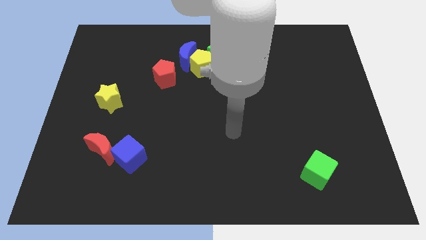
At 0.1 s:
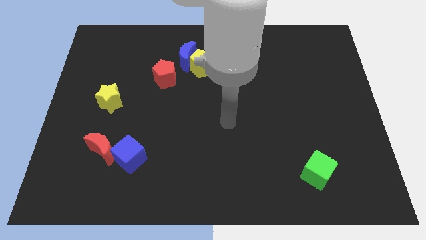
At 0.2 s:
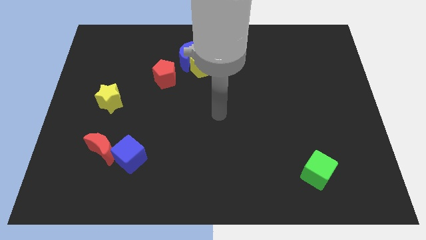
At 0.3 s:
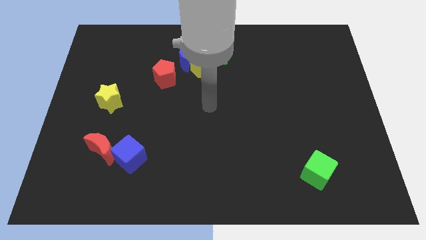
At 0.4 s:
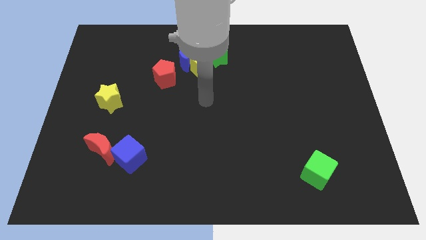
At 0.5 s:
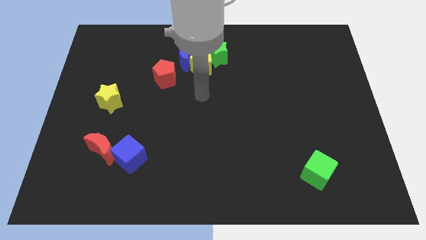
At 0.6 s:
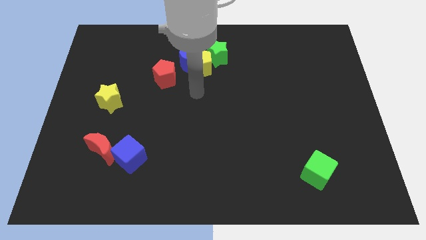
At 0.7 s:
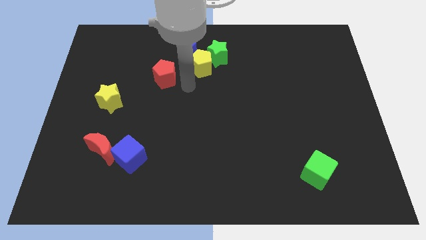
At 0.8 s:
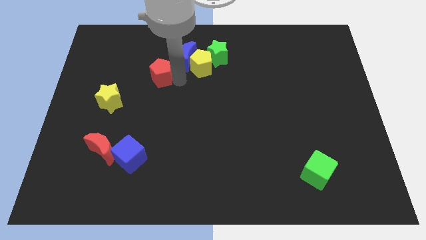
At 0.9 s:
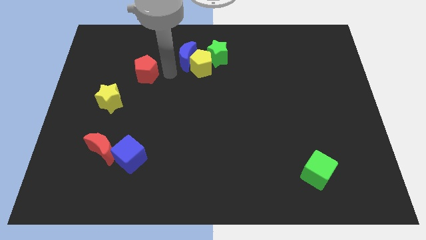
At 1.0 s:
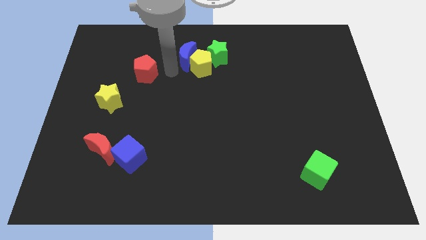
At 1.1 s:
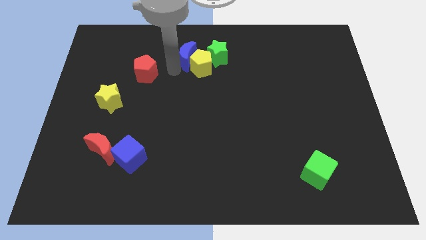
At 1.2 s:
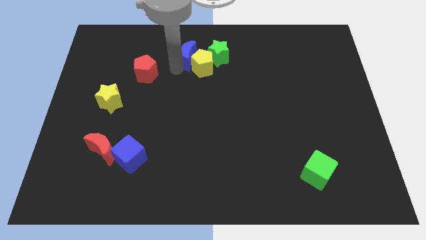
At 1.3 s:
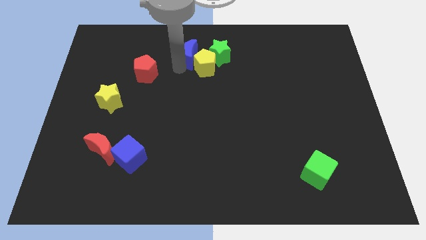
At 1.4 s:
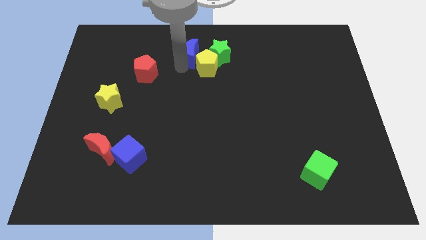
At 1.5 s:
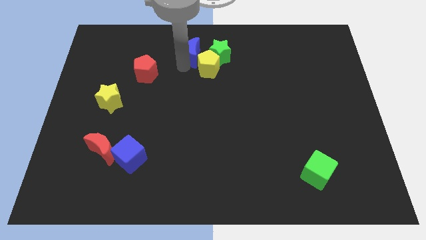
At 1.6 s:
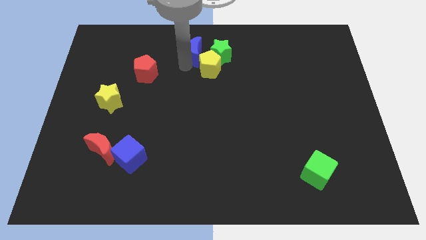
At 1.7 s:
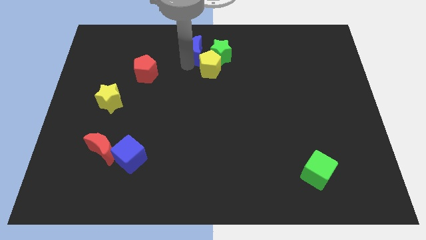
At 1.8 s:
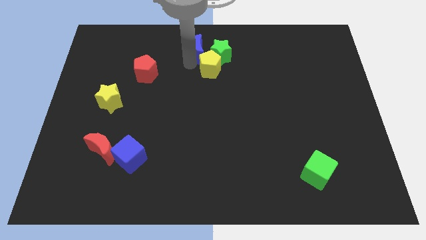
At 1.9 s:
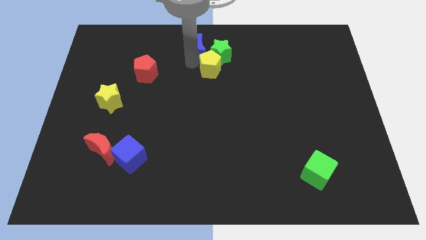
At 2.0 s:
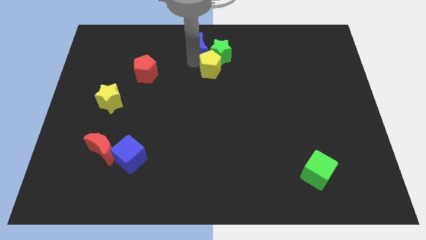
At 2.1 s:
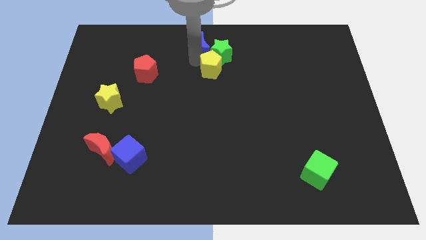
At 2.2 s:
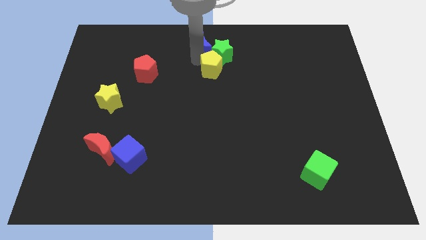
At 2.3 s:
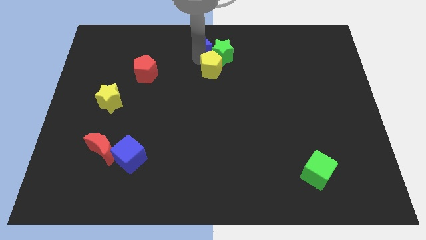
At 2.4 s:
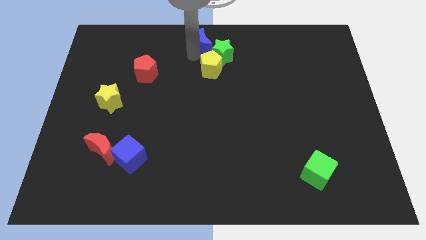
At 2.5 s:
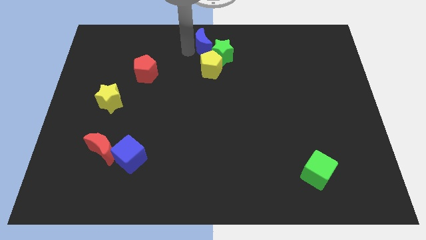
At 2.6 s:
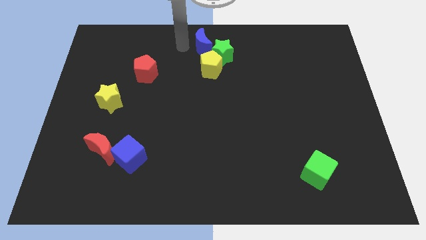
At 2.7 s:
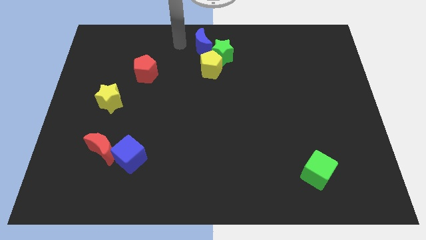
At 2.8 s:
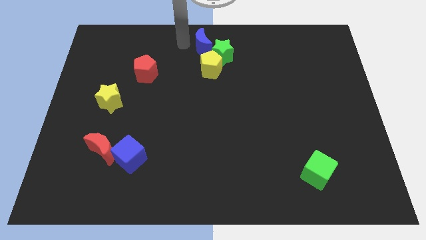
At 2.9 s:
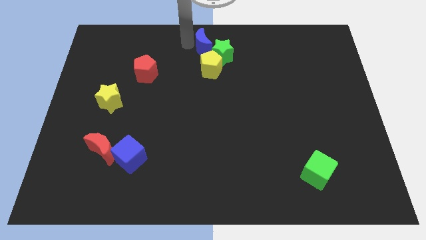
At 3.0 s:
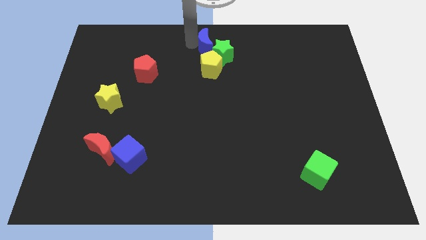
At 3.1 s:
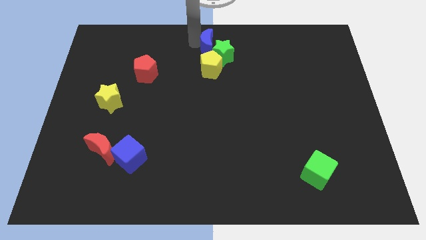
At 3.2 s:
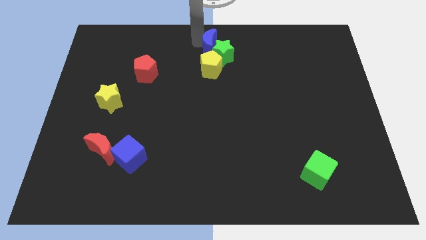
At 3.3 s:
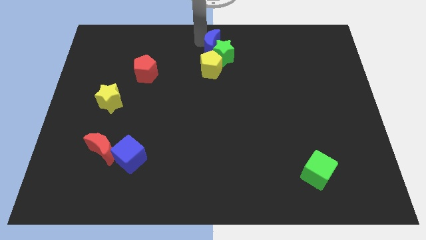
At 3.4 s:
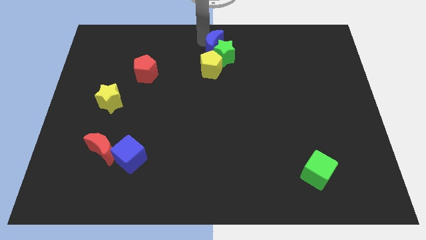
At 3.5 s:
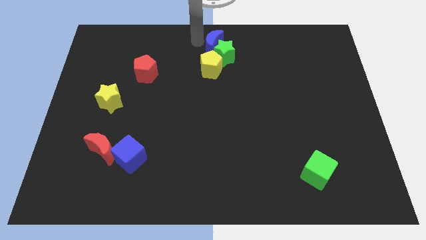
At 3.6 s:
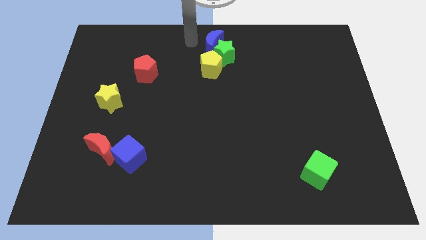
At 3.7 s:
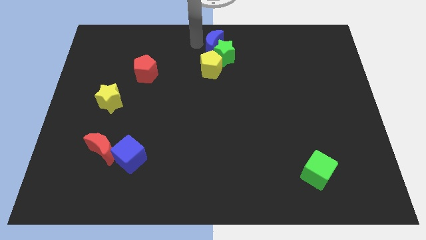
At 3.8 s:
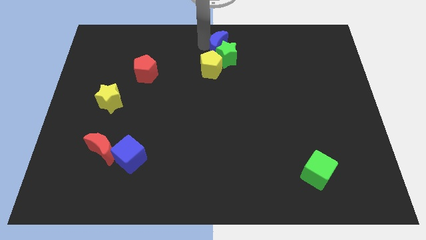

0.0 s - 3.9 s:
slightly move the blue moon to the right

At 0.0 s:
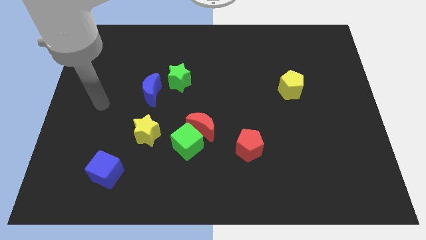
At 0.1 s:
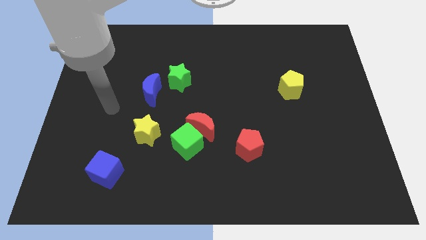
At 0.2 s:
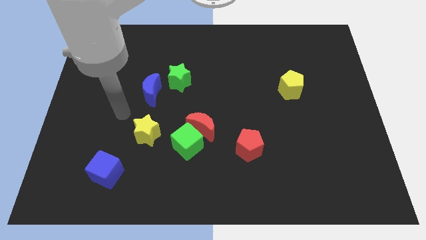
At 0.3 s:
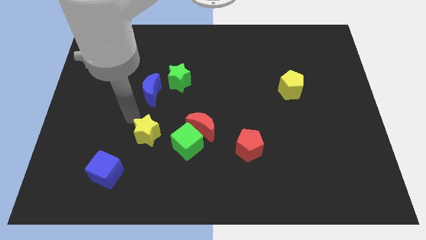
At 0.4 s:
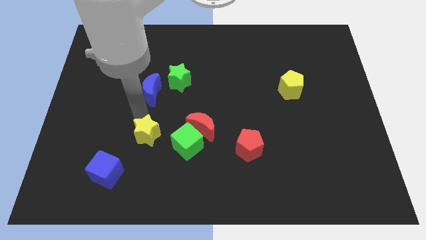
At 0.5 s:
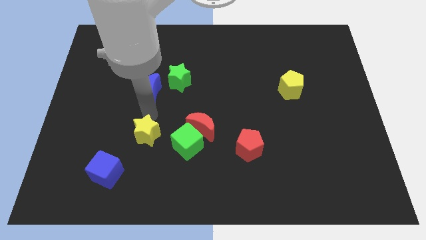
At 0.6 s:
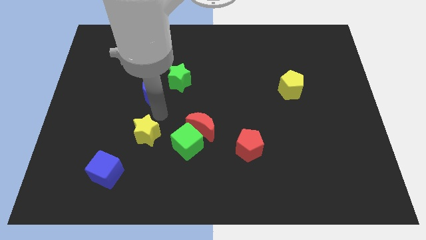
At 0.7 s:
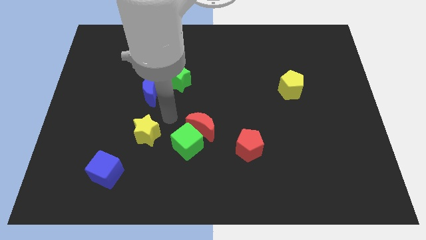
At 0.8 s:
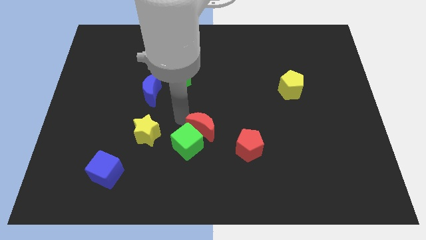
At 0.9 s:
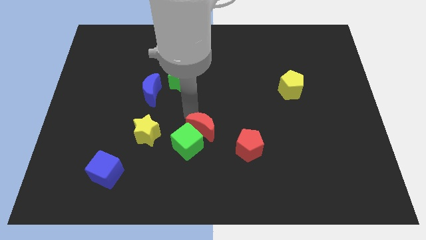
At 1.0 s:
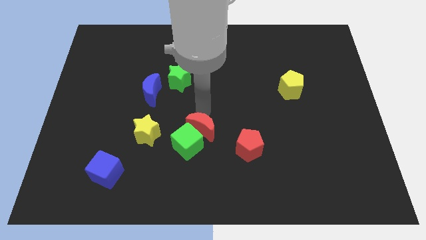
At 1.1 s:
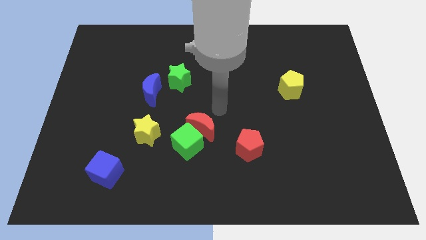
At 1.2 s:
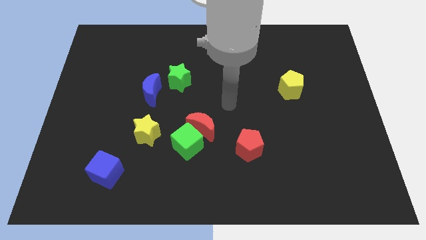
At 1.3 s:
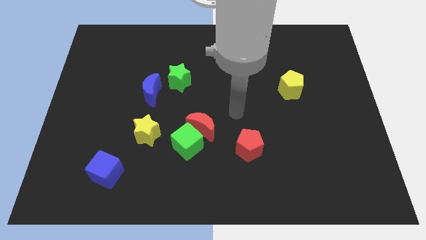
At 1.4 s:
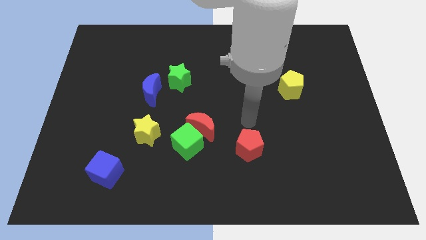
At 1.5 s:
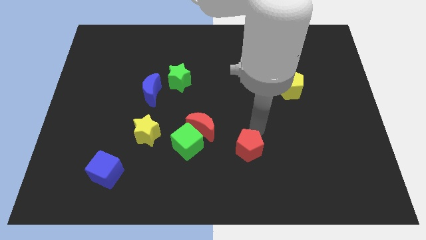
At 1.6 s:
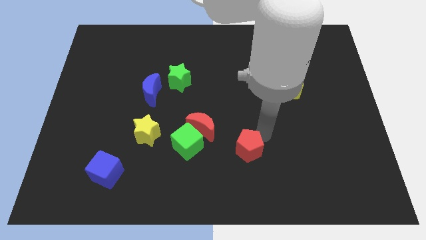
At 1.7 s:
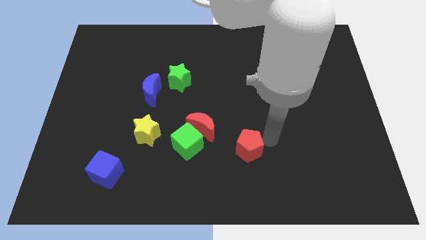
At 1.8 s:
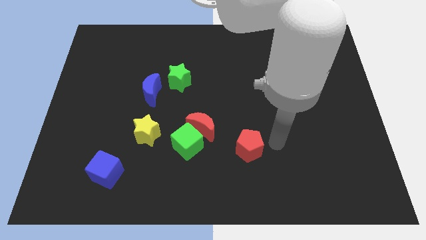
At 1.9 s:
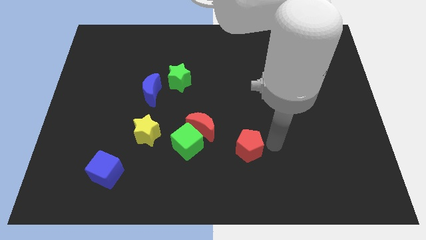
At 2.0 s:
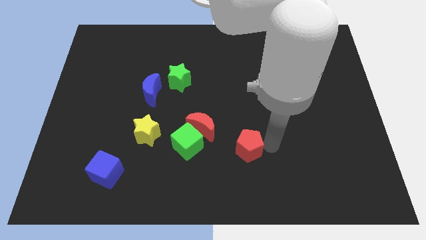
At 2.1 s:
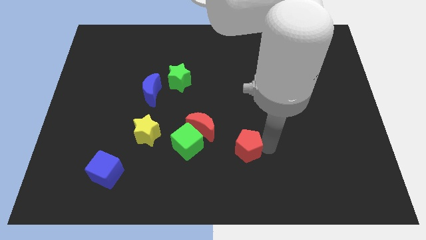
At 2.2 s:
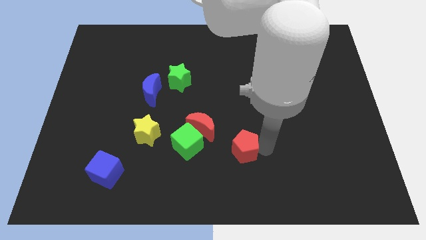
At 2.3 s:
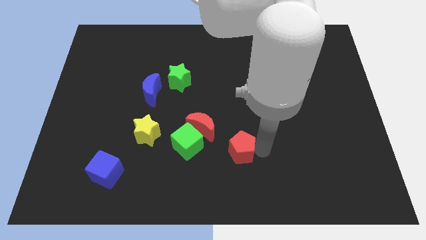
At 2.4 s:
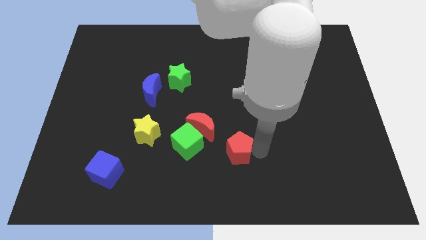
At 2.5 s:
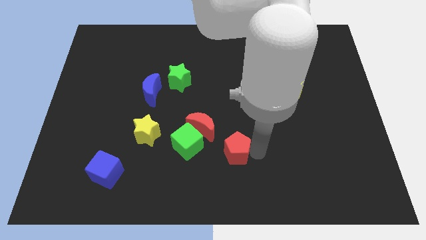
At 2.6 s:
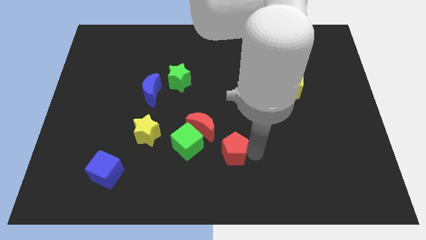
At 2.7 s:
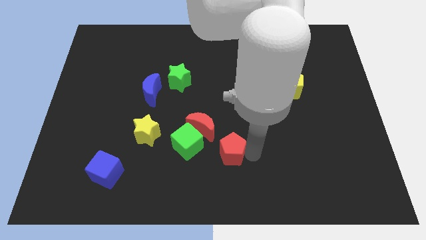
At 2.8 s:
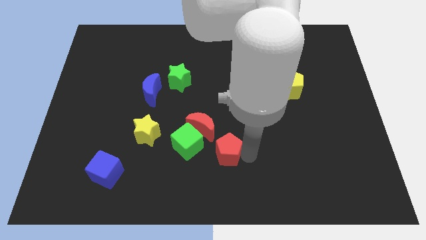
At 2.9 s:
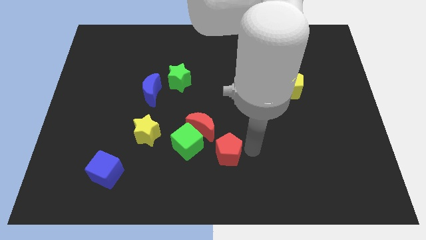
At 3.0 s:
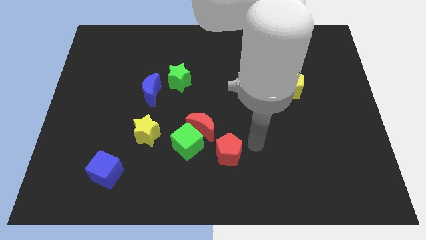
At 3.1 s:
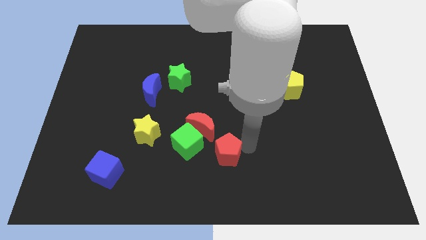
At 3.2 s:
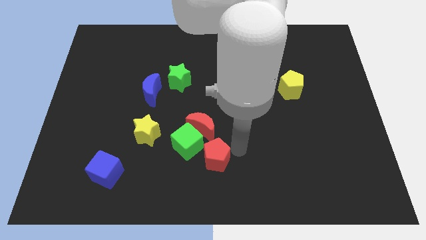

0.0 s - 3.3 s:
move the red pentagon left a little bit

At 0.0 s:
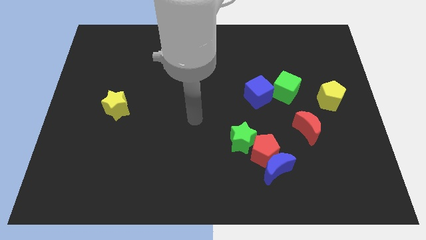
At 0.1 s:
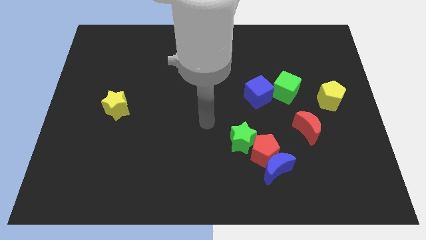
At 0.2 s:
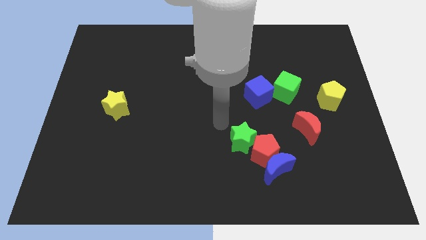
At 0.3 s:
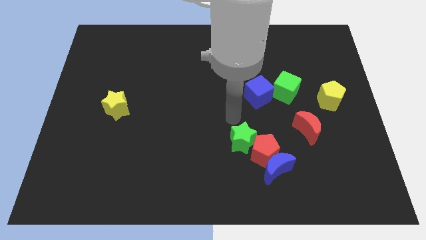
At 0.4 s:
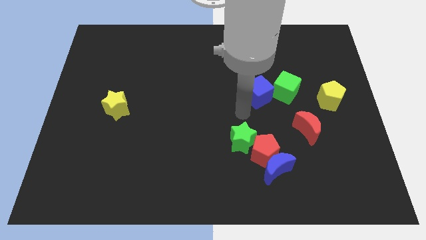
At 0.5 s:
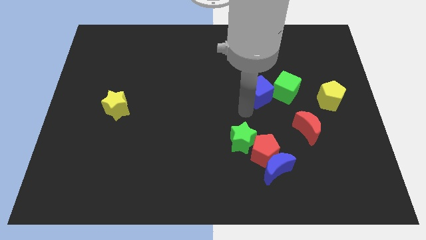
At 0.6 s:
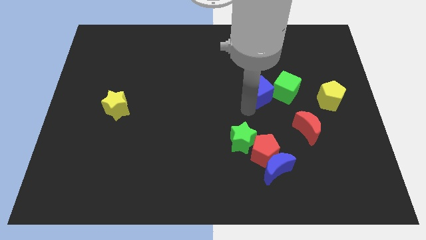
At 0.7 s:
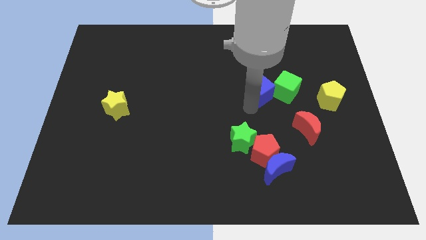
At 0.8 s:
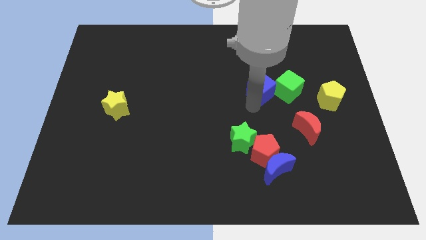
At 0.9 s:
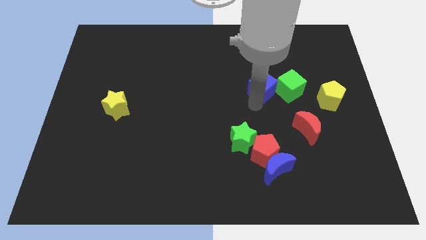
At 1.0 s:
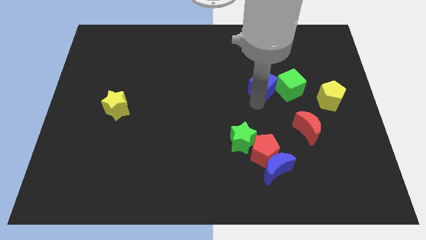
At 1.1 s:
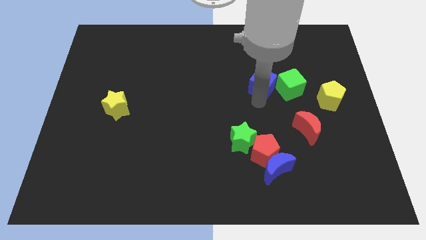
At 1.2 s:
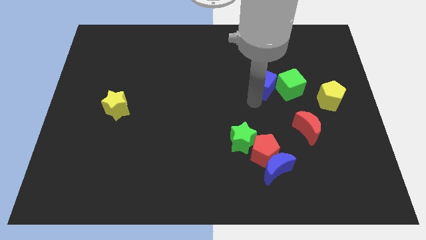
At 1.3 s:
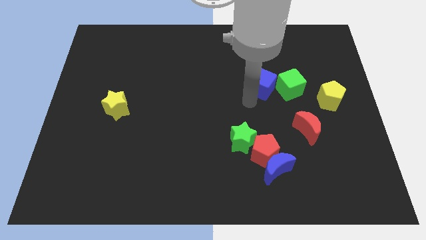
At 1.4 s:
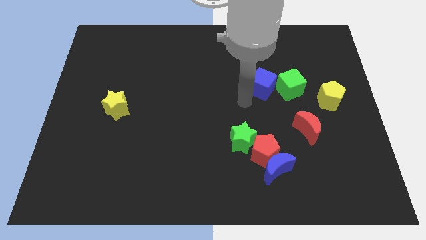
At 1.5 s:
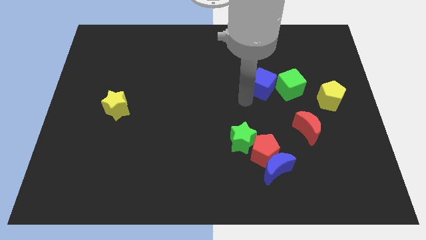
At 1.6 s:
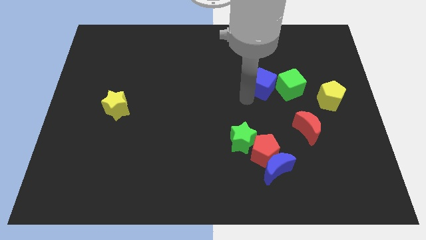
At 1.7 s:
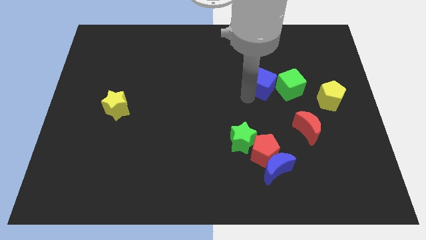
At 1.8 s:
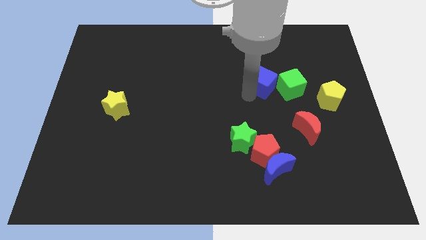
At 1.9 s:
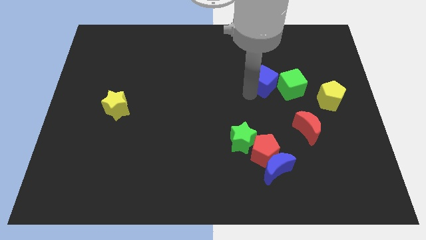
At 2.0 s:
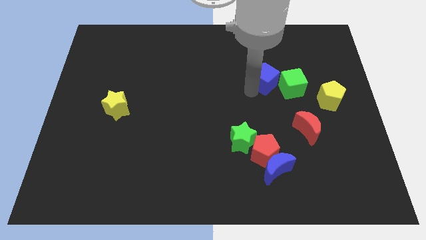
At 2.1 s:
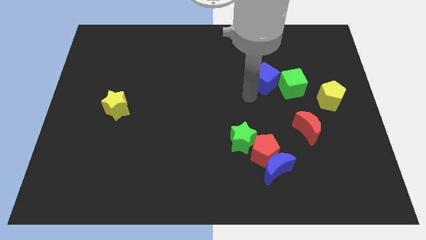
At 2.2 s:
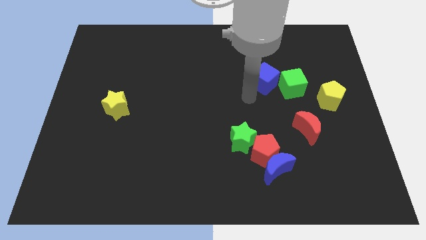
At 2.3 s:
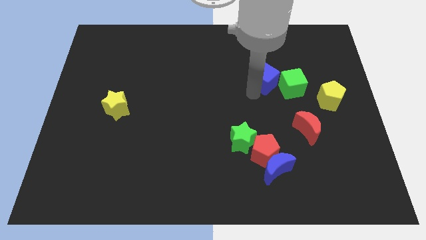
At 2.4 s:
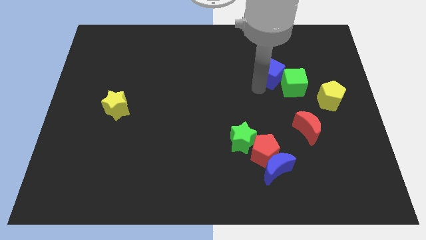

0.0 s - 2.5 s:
slide the blue cube somewhat diagonally up and right
